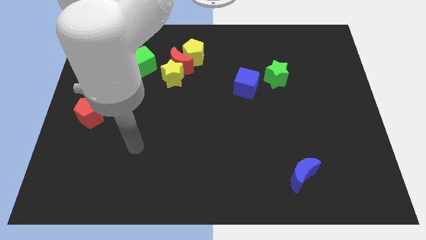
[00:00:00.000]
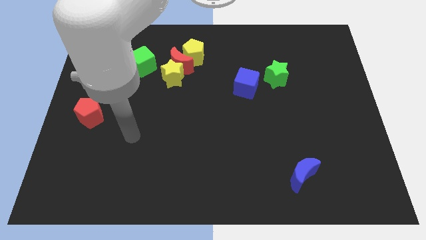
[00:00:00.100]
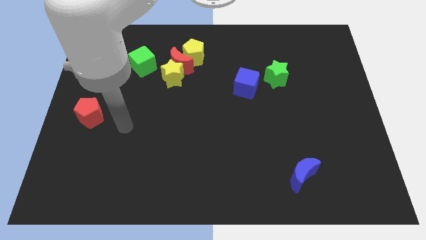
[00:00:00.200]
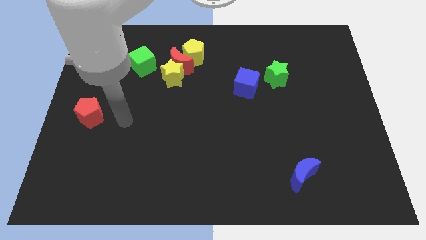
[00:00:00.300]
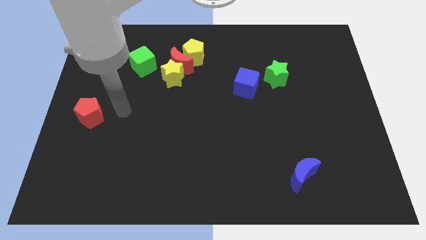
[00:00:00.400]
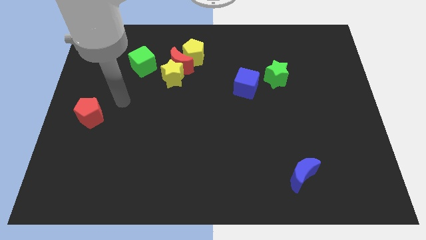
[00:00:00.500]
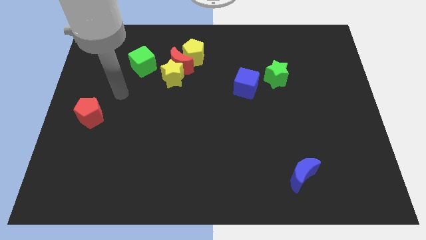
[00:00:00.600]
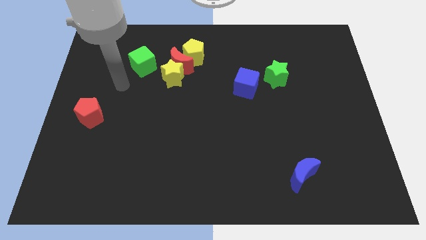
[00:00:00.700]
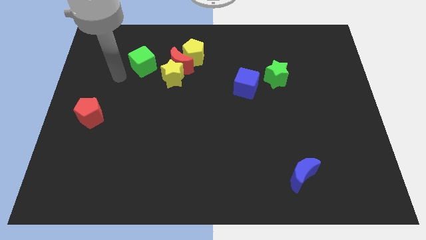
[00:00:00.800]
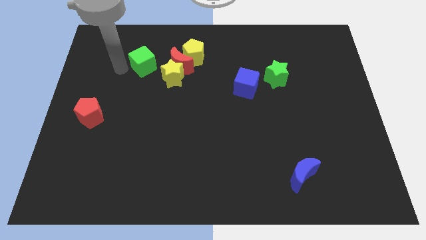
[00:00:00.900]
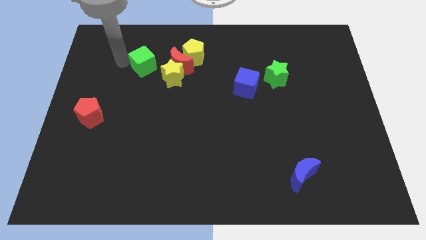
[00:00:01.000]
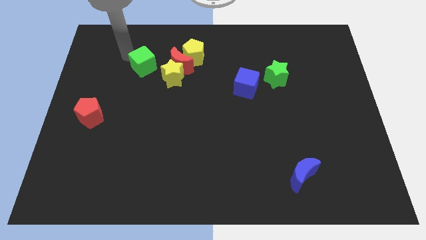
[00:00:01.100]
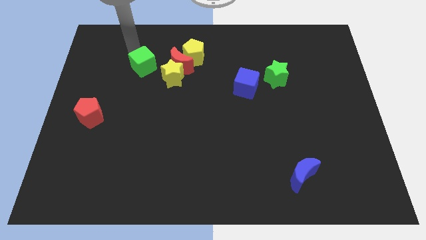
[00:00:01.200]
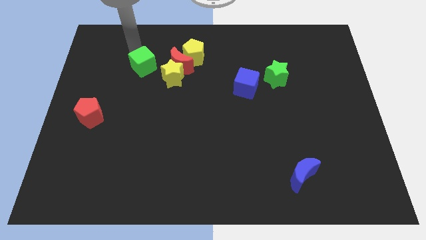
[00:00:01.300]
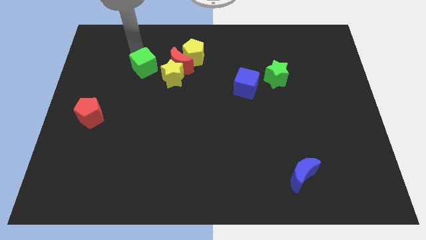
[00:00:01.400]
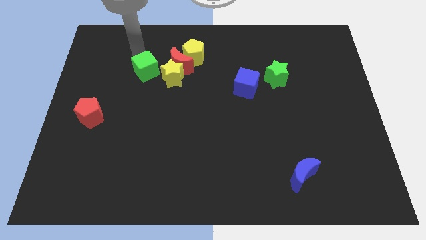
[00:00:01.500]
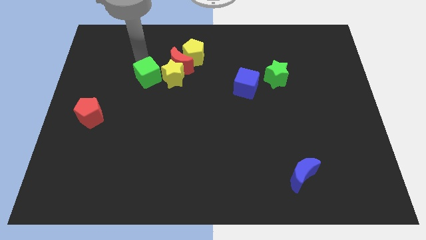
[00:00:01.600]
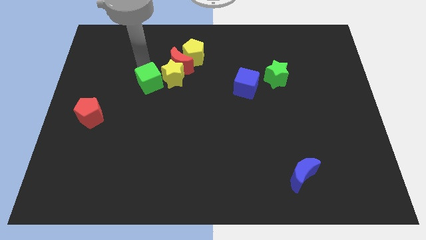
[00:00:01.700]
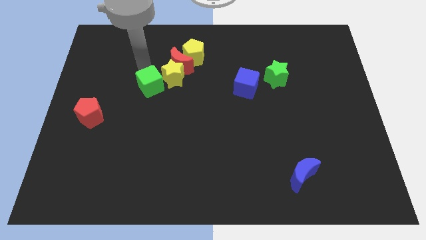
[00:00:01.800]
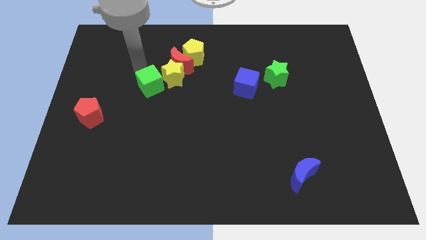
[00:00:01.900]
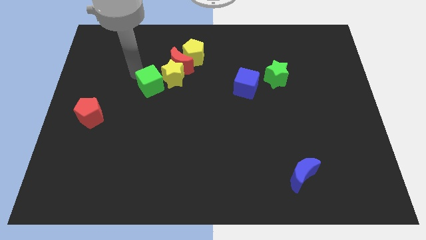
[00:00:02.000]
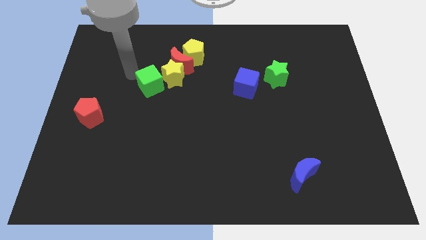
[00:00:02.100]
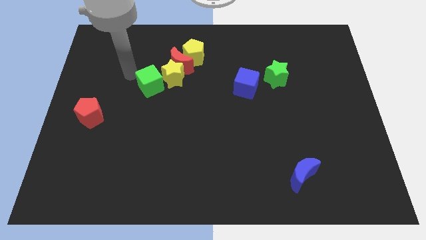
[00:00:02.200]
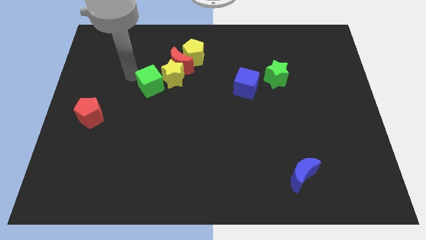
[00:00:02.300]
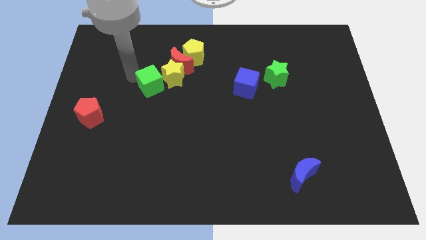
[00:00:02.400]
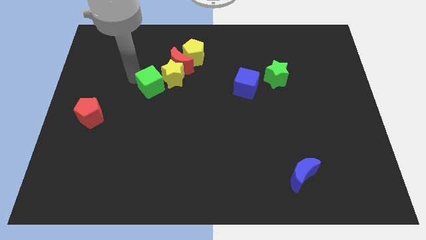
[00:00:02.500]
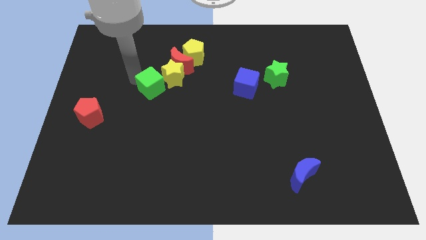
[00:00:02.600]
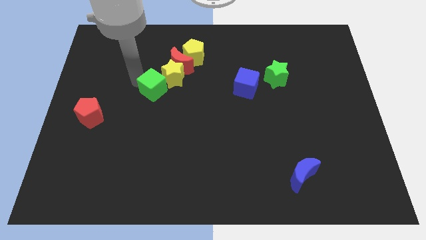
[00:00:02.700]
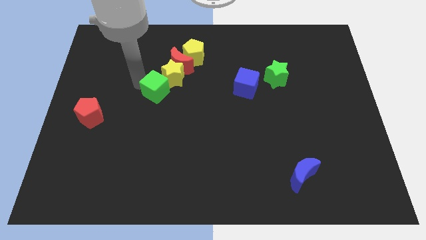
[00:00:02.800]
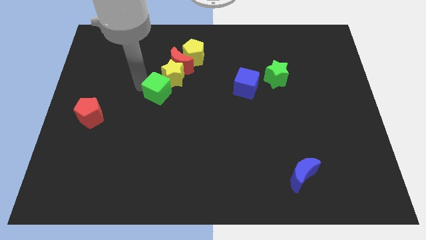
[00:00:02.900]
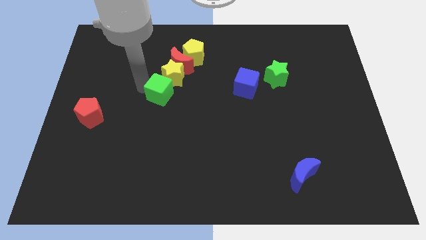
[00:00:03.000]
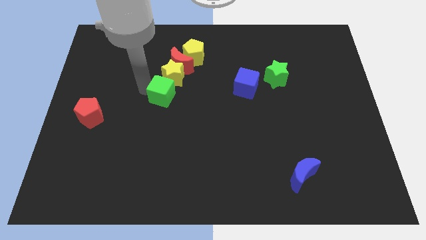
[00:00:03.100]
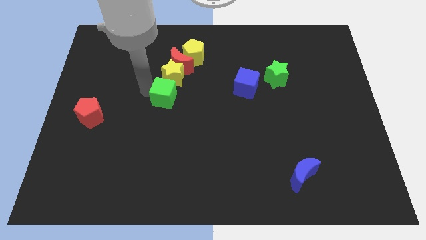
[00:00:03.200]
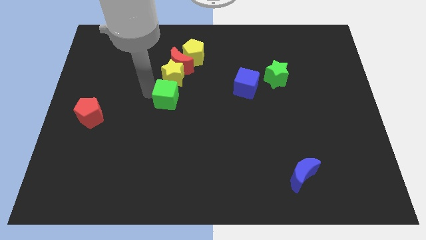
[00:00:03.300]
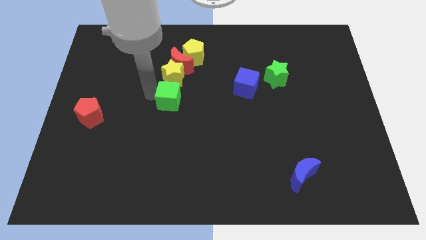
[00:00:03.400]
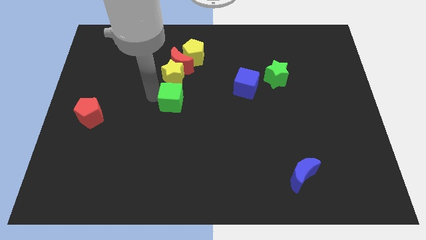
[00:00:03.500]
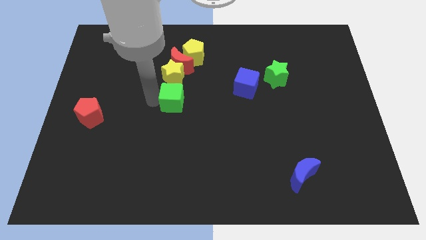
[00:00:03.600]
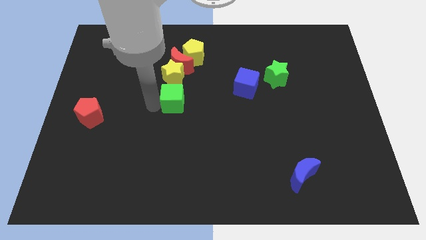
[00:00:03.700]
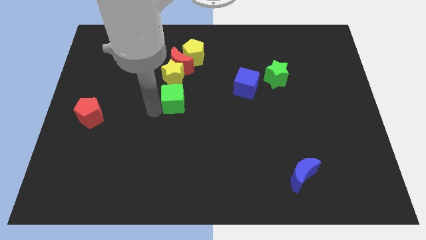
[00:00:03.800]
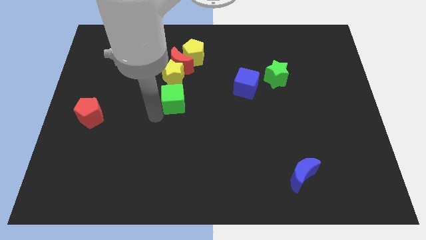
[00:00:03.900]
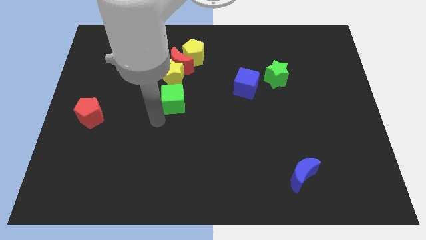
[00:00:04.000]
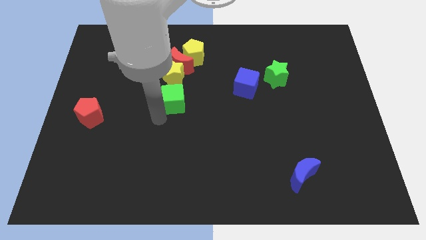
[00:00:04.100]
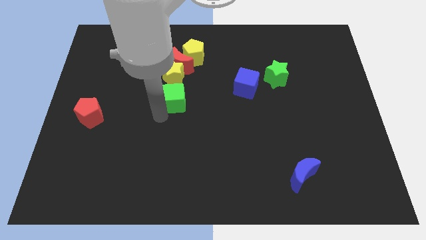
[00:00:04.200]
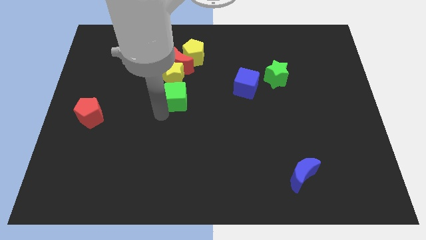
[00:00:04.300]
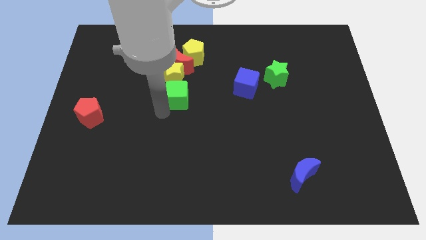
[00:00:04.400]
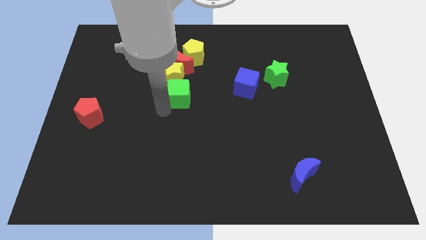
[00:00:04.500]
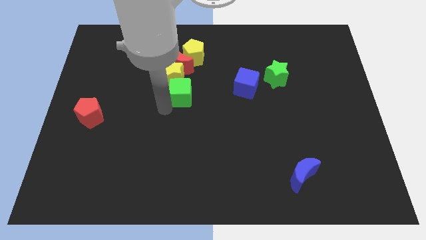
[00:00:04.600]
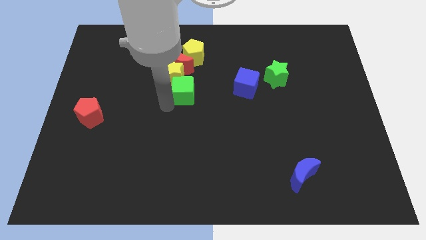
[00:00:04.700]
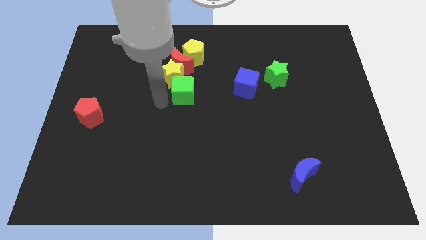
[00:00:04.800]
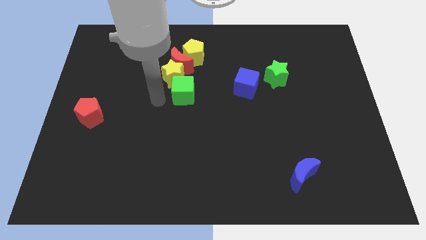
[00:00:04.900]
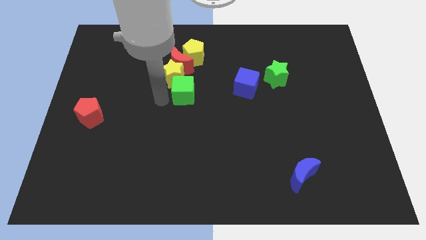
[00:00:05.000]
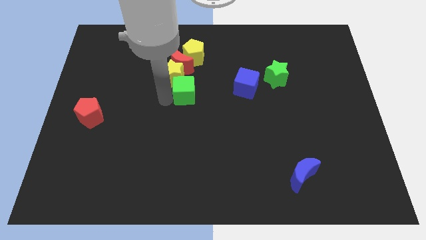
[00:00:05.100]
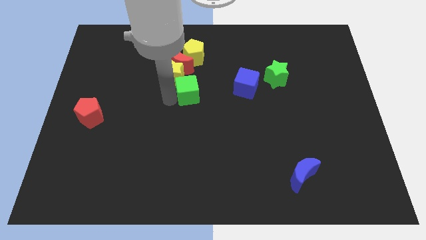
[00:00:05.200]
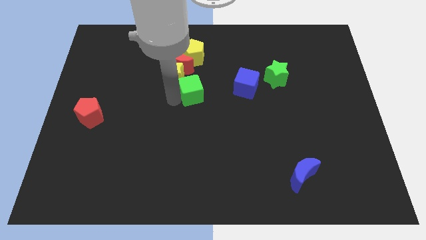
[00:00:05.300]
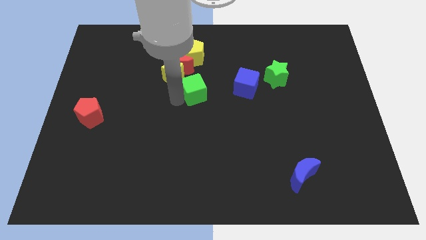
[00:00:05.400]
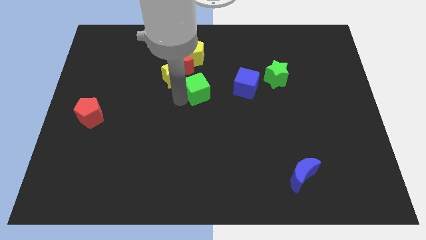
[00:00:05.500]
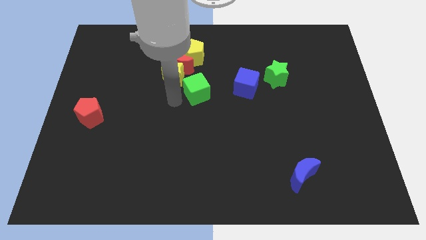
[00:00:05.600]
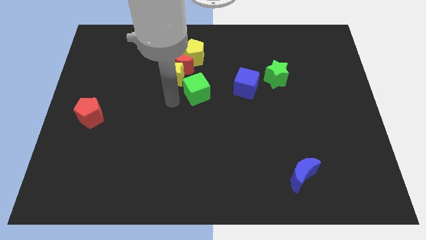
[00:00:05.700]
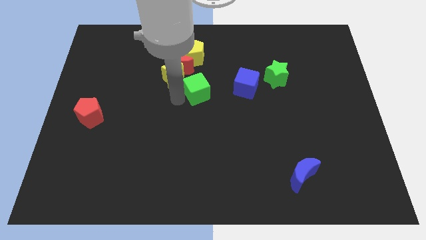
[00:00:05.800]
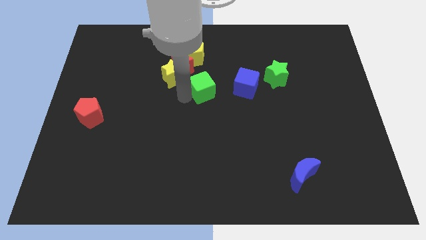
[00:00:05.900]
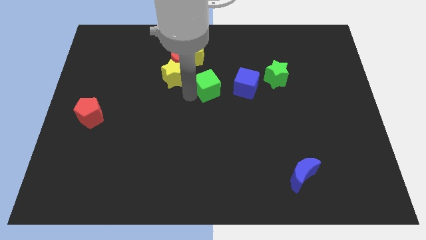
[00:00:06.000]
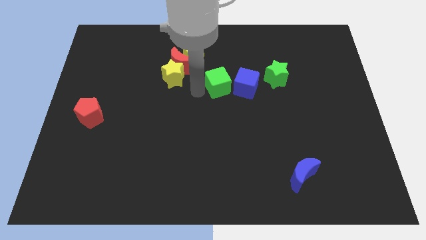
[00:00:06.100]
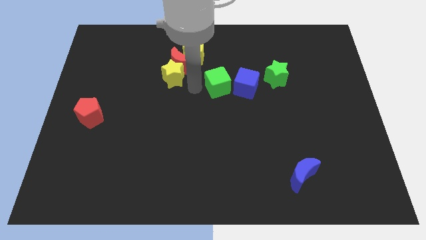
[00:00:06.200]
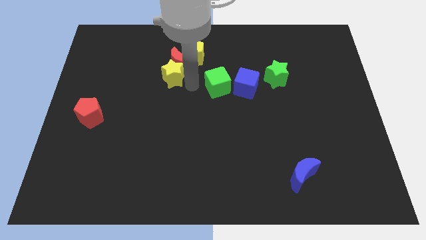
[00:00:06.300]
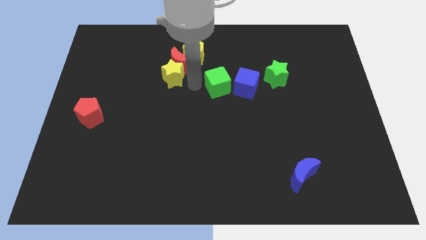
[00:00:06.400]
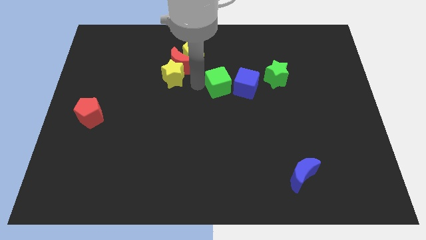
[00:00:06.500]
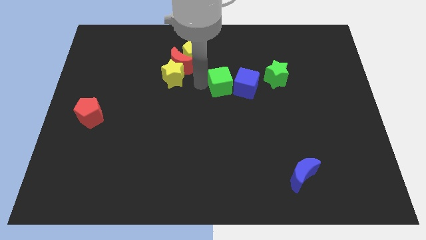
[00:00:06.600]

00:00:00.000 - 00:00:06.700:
move the green cube to the blue cube

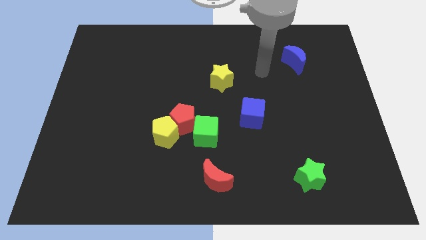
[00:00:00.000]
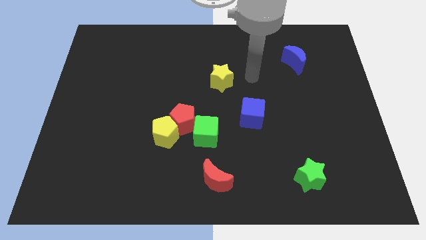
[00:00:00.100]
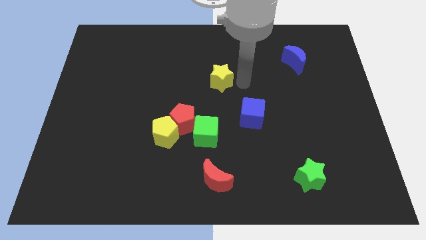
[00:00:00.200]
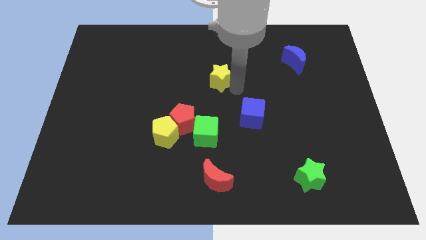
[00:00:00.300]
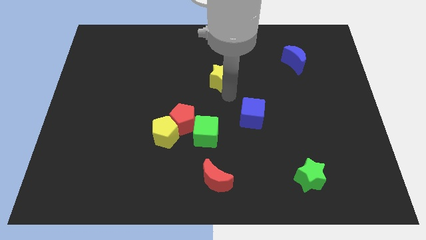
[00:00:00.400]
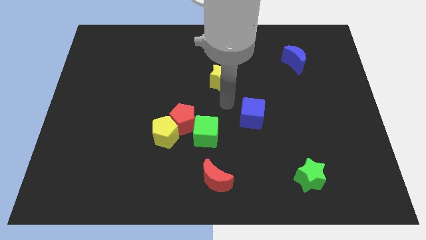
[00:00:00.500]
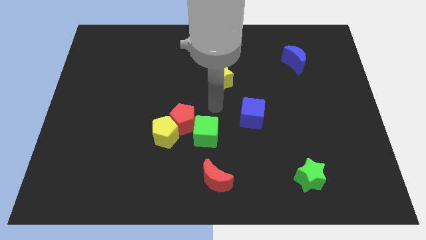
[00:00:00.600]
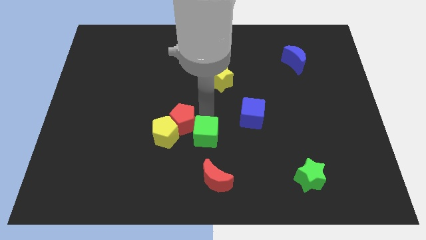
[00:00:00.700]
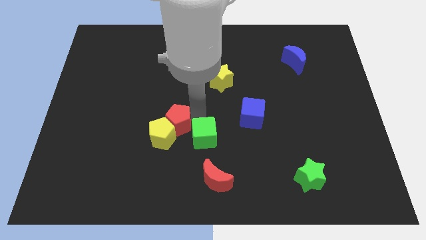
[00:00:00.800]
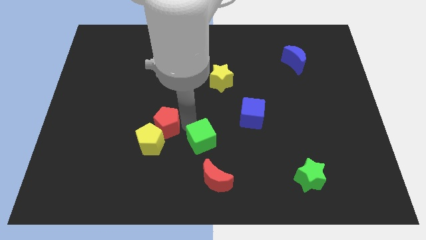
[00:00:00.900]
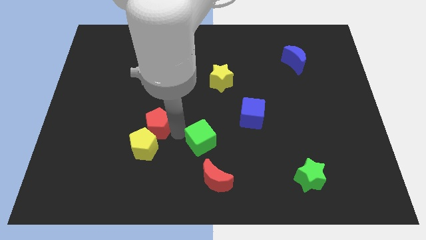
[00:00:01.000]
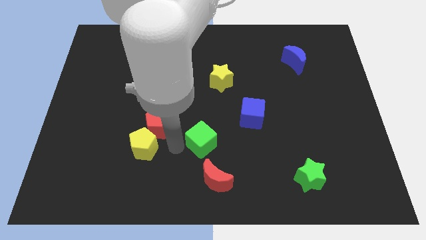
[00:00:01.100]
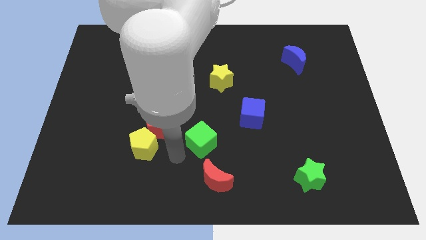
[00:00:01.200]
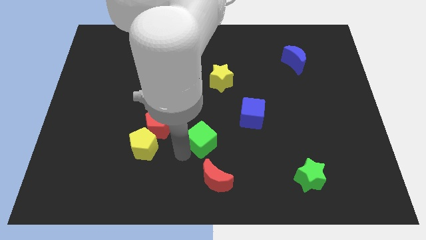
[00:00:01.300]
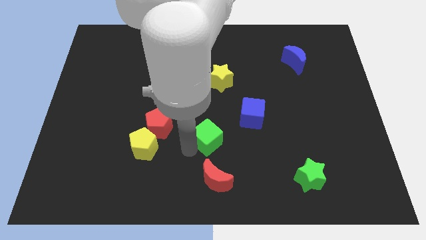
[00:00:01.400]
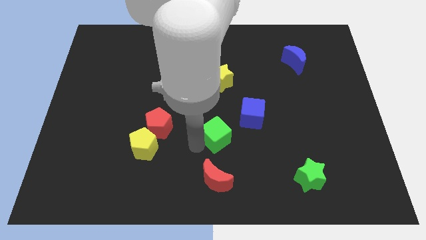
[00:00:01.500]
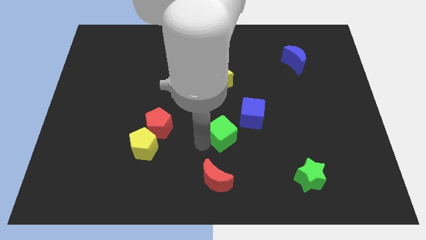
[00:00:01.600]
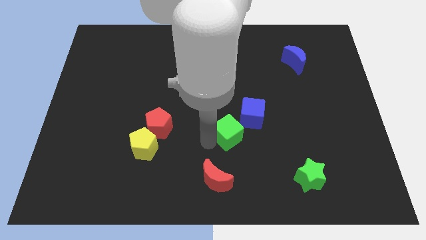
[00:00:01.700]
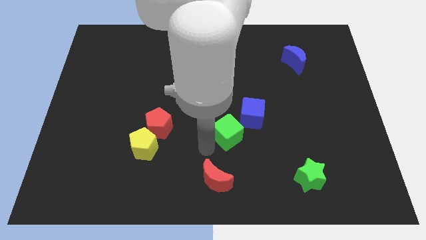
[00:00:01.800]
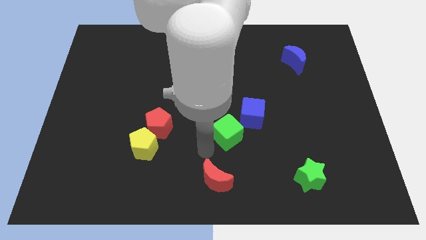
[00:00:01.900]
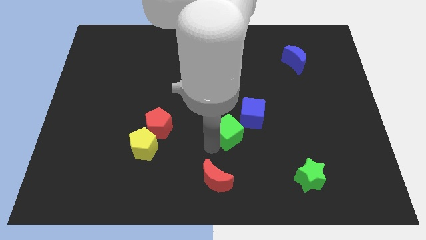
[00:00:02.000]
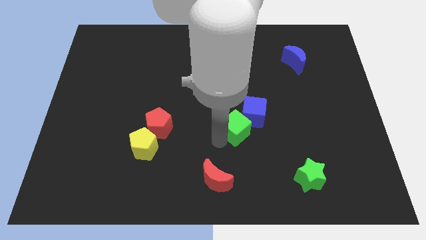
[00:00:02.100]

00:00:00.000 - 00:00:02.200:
push the green cube towards the blue cube
